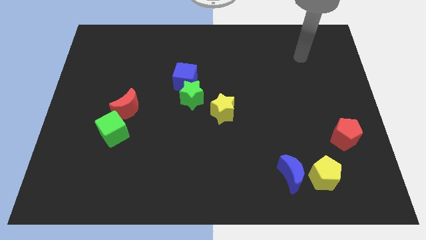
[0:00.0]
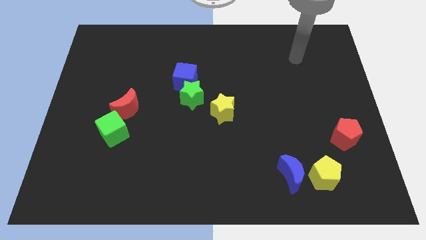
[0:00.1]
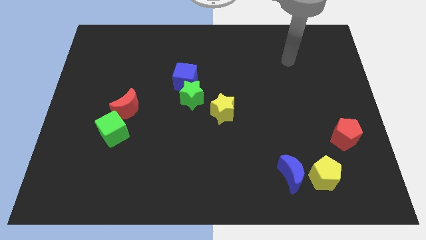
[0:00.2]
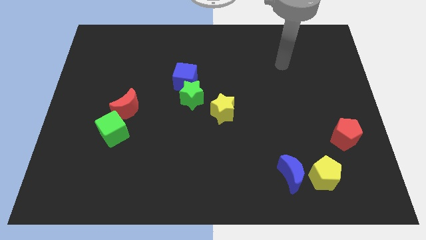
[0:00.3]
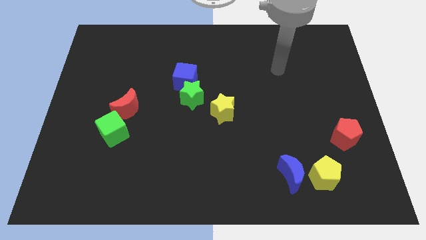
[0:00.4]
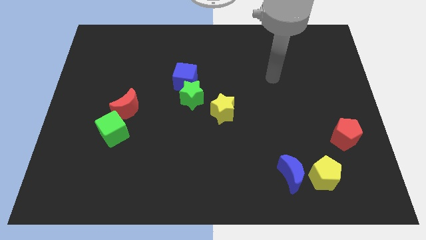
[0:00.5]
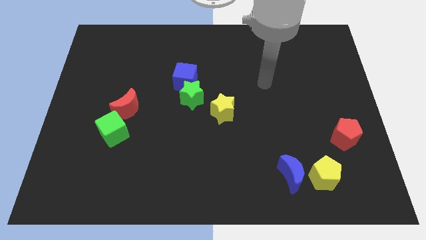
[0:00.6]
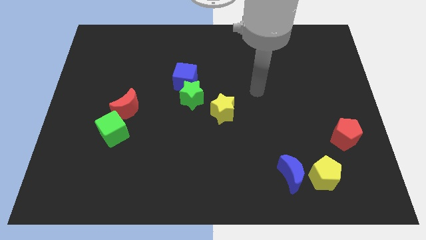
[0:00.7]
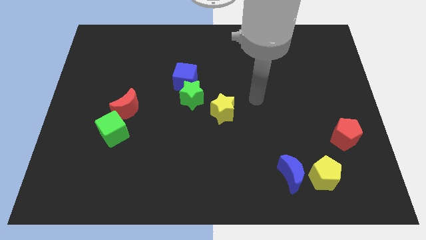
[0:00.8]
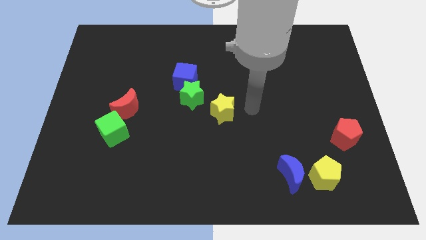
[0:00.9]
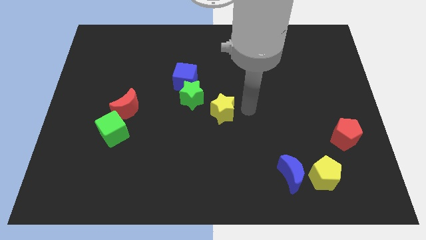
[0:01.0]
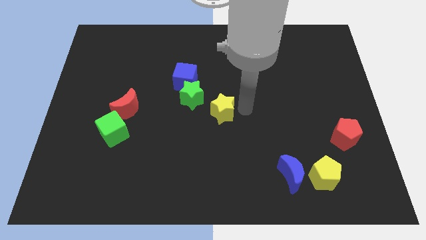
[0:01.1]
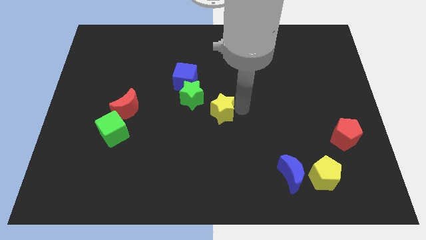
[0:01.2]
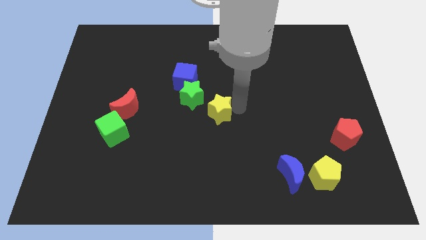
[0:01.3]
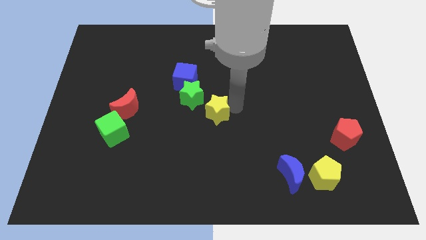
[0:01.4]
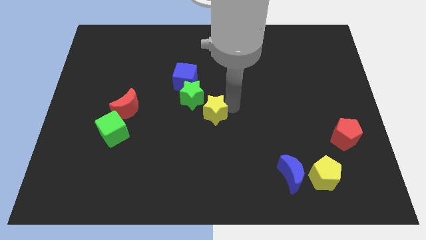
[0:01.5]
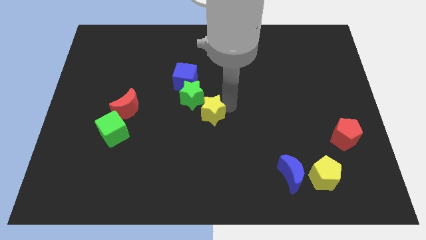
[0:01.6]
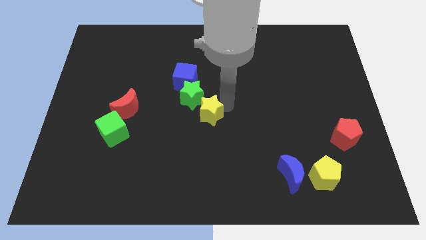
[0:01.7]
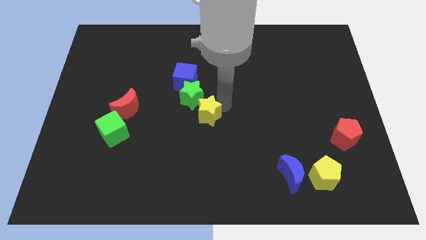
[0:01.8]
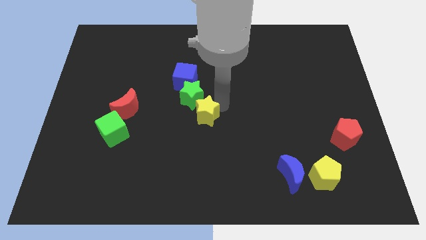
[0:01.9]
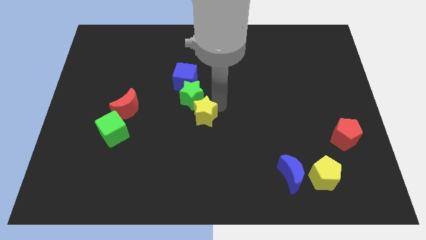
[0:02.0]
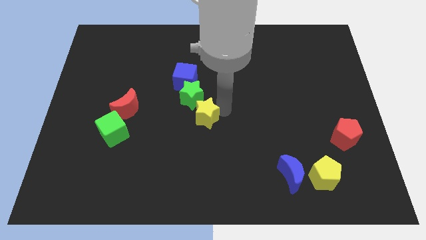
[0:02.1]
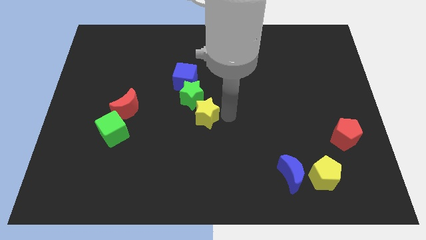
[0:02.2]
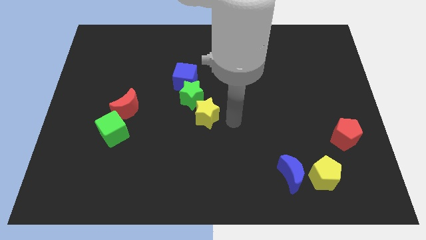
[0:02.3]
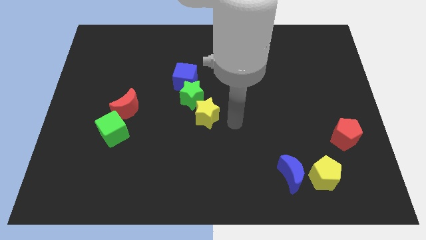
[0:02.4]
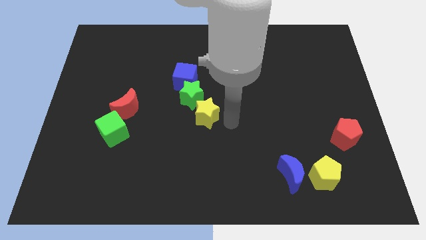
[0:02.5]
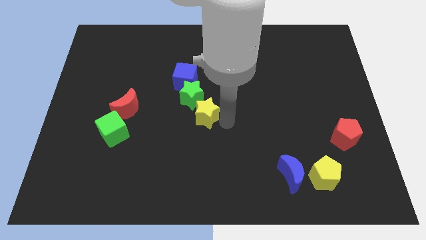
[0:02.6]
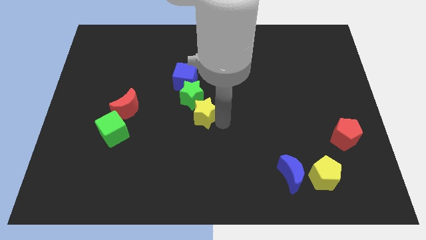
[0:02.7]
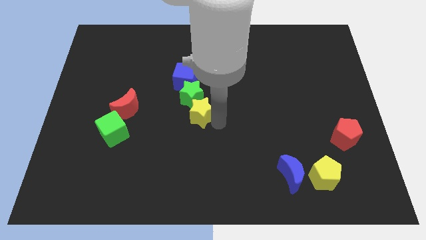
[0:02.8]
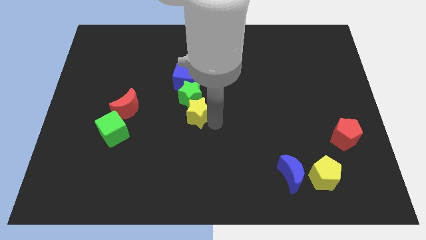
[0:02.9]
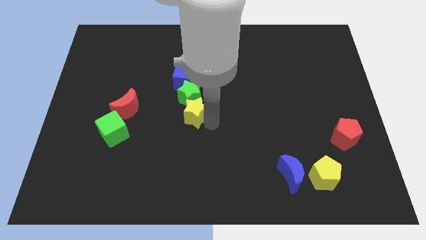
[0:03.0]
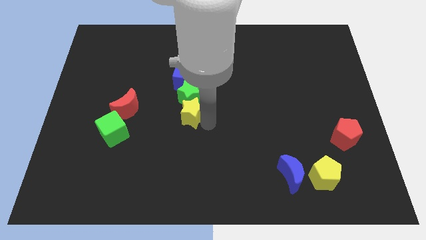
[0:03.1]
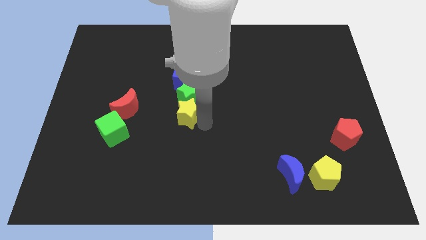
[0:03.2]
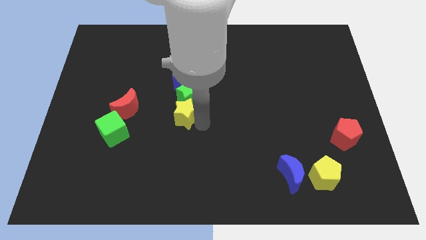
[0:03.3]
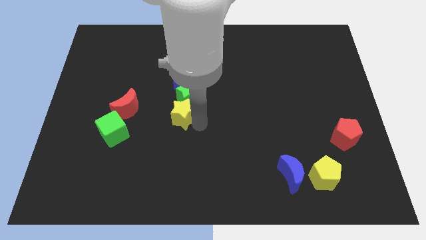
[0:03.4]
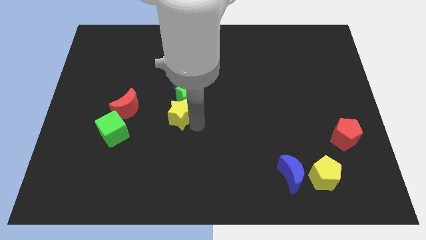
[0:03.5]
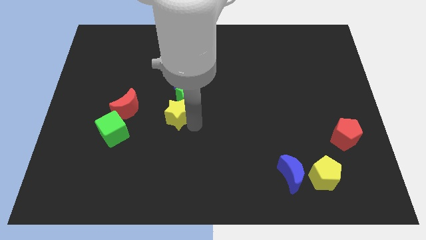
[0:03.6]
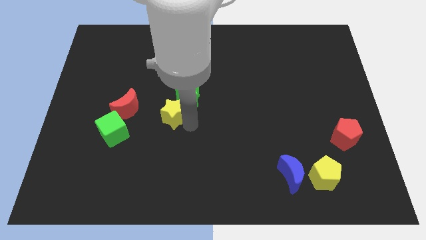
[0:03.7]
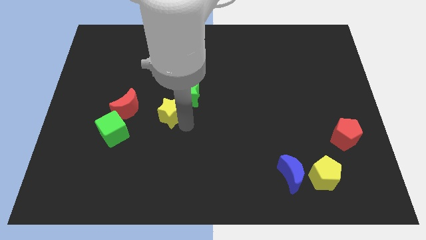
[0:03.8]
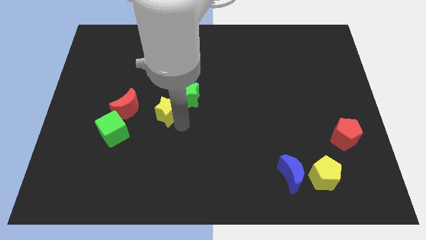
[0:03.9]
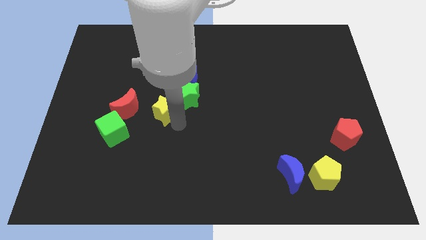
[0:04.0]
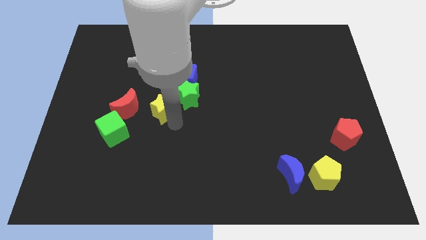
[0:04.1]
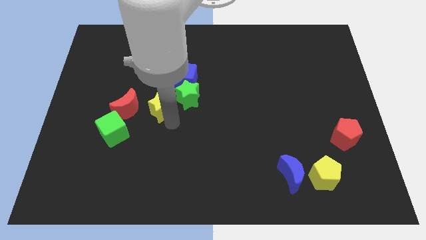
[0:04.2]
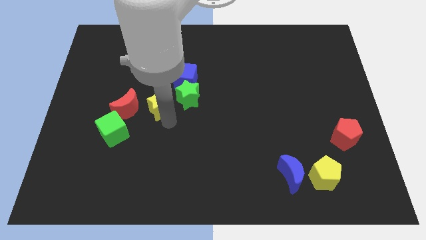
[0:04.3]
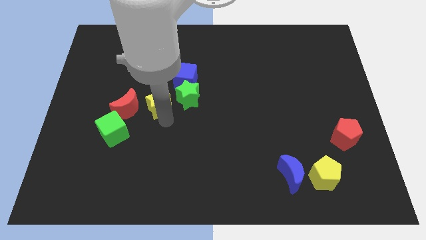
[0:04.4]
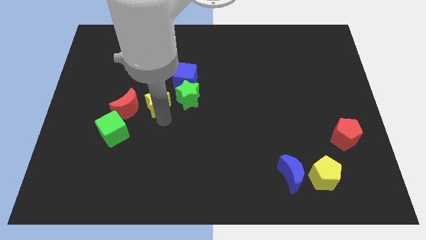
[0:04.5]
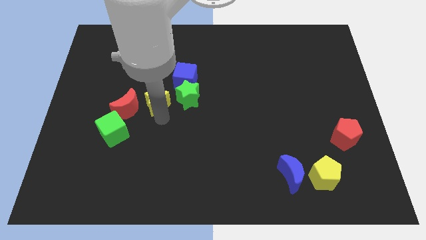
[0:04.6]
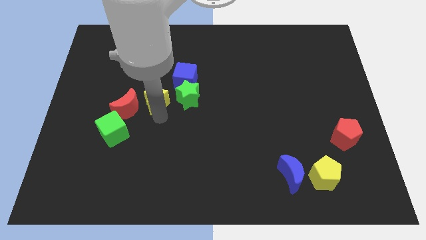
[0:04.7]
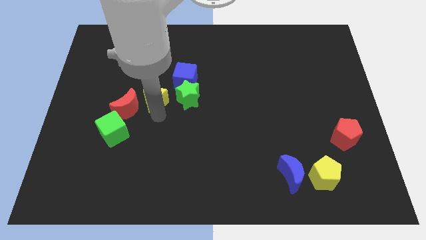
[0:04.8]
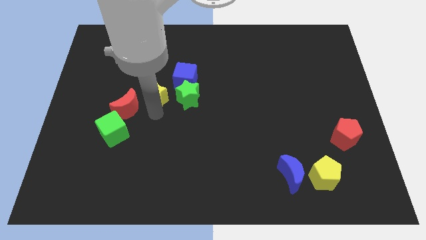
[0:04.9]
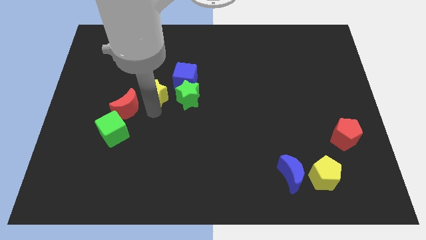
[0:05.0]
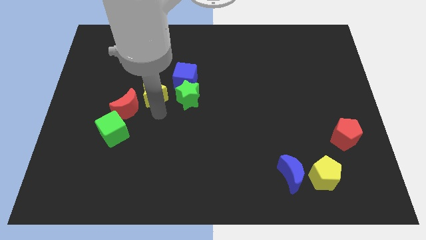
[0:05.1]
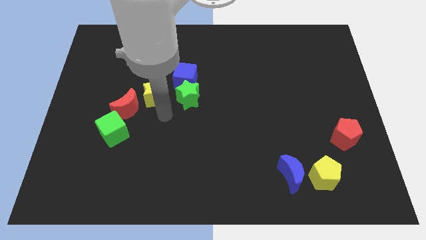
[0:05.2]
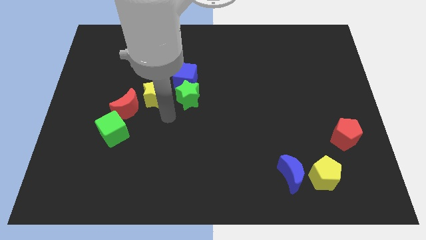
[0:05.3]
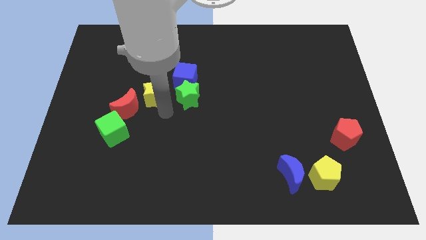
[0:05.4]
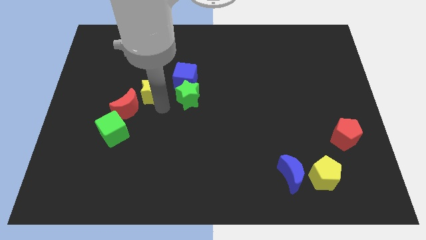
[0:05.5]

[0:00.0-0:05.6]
push the yellow star left of the blue cube

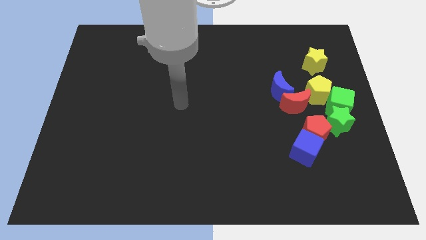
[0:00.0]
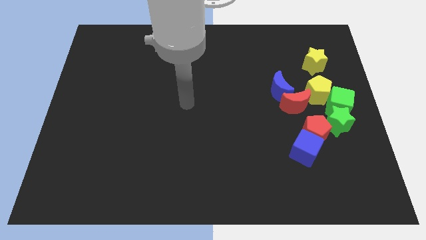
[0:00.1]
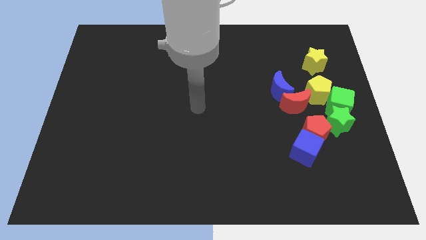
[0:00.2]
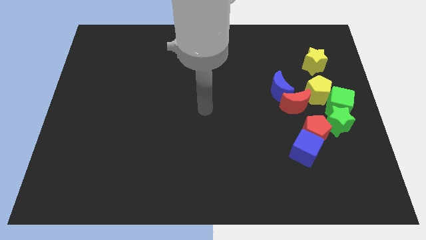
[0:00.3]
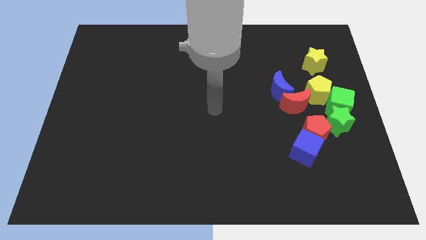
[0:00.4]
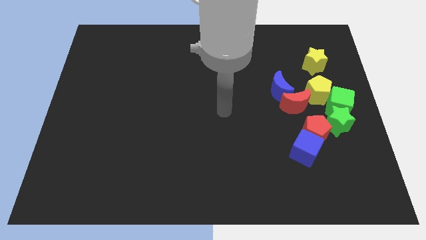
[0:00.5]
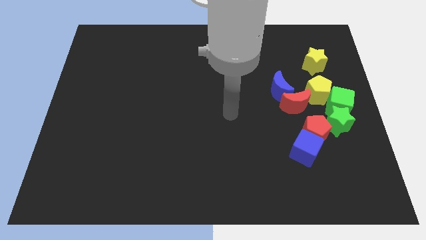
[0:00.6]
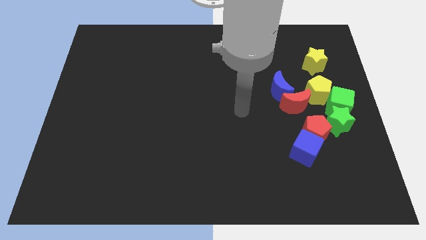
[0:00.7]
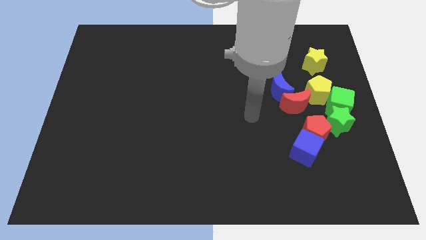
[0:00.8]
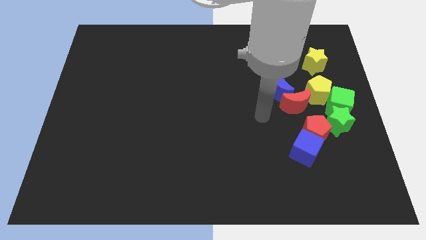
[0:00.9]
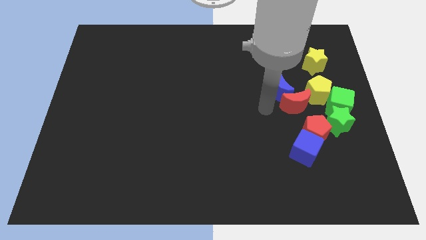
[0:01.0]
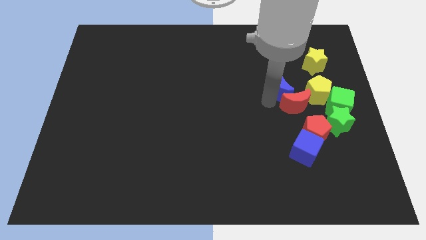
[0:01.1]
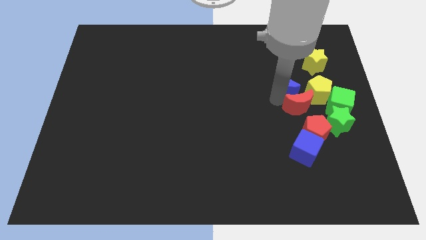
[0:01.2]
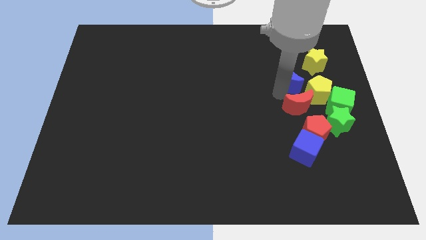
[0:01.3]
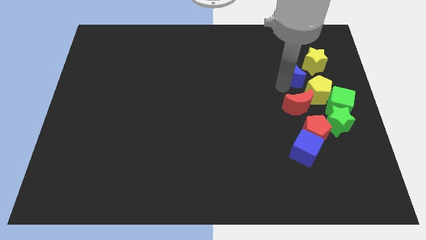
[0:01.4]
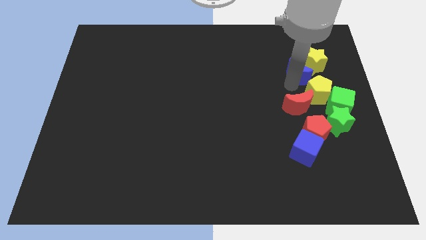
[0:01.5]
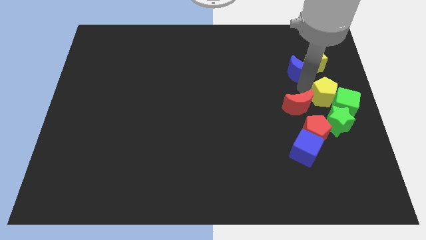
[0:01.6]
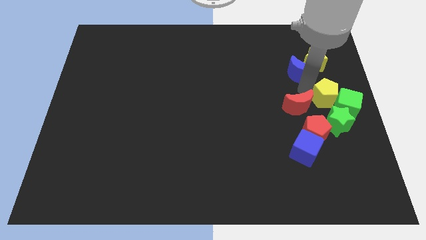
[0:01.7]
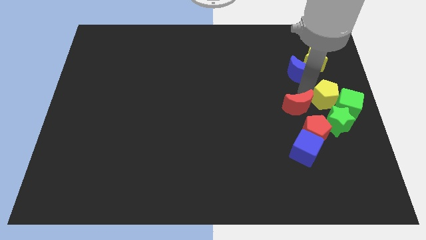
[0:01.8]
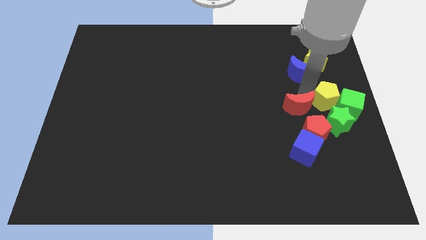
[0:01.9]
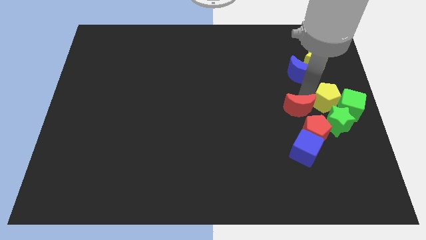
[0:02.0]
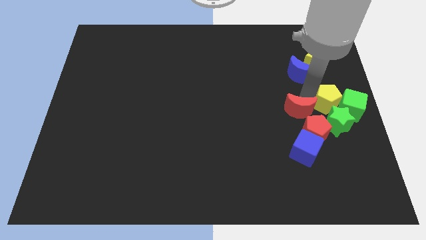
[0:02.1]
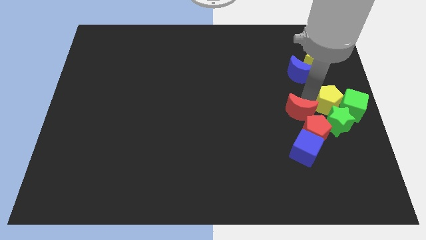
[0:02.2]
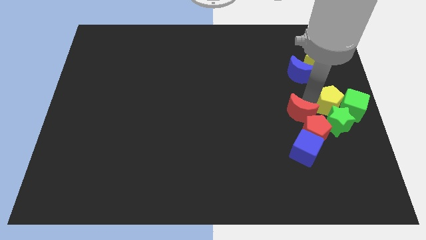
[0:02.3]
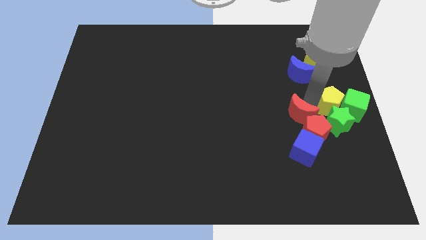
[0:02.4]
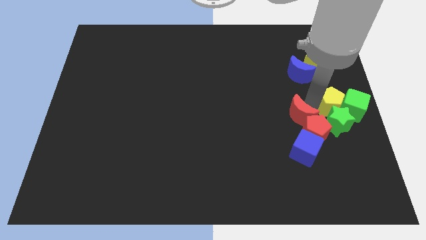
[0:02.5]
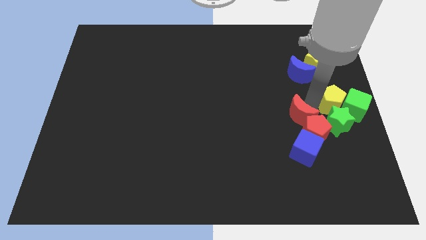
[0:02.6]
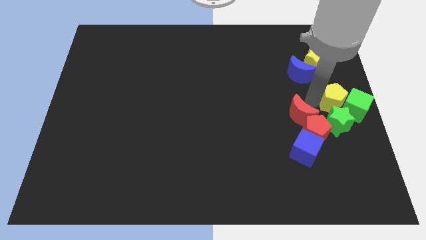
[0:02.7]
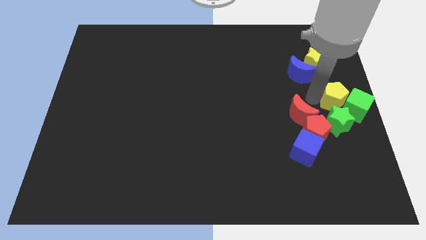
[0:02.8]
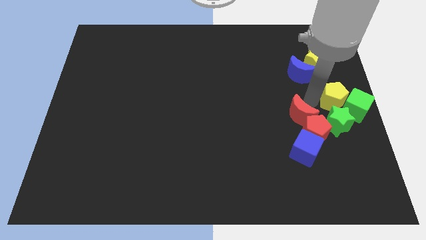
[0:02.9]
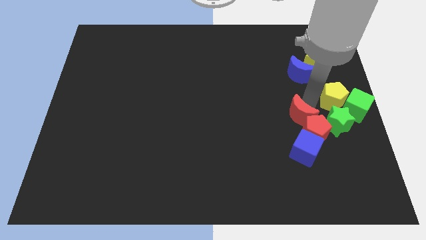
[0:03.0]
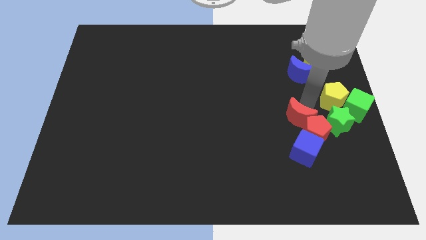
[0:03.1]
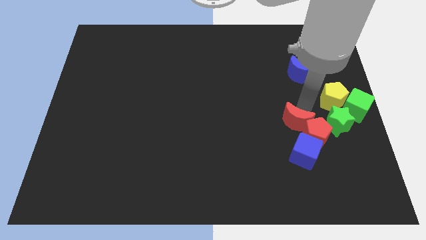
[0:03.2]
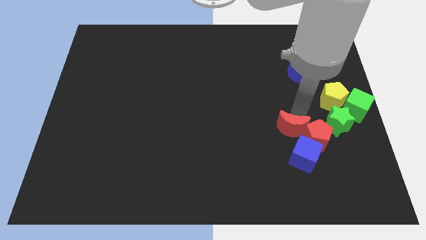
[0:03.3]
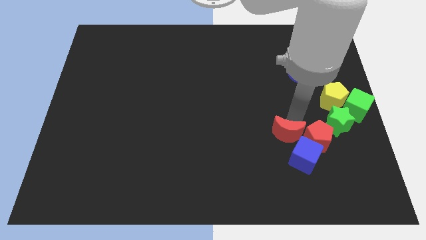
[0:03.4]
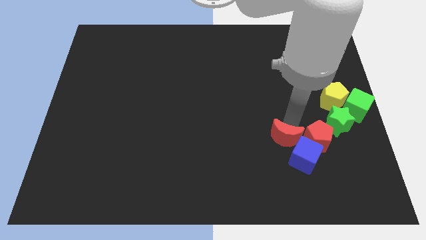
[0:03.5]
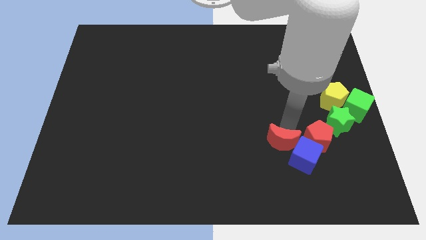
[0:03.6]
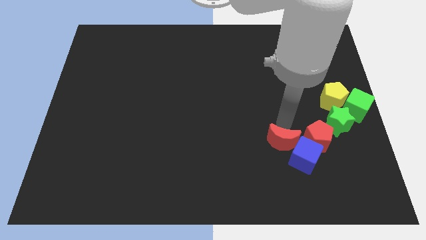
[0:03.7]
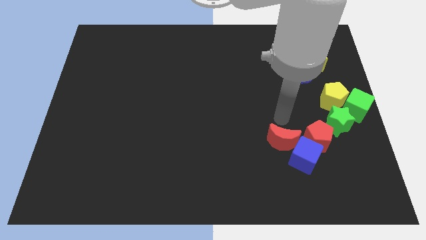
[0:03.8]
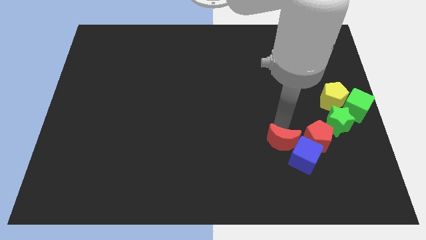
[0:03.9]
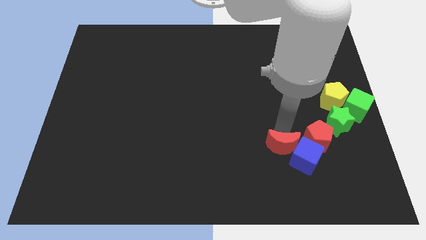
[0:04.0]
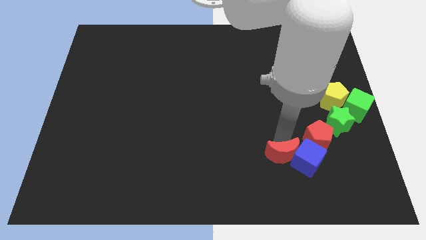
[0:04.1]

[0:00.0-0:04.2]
move the red moon to the bottom left side of the blue cube
